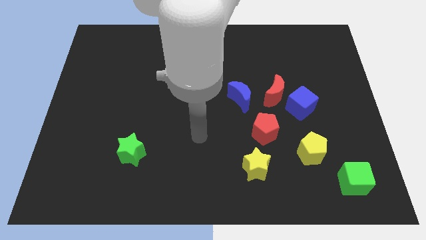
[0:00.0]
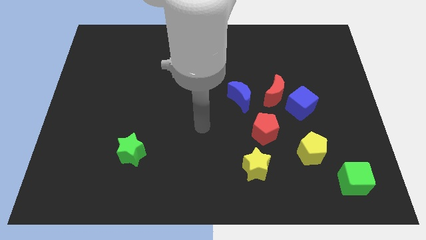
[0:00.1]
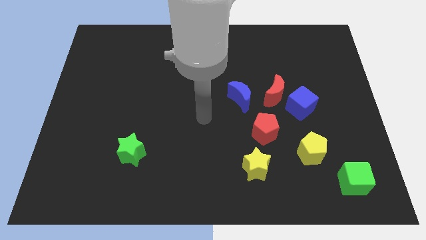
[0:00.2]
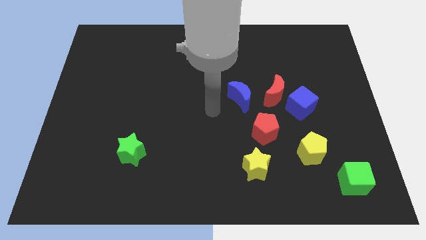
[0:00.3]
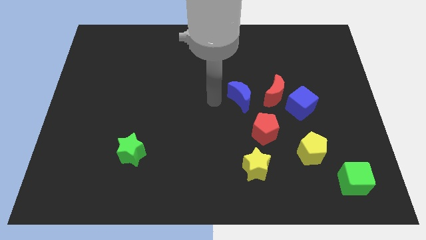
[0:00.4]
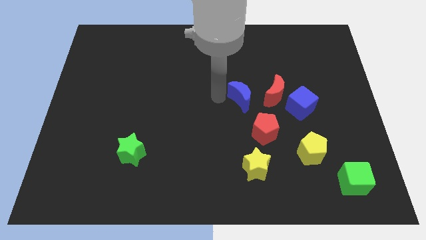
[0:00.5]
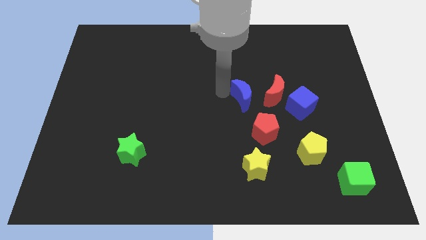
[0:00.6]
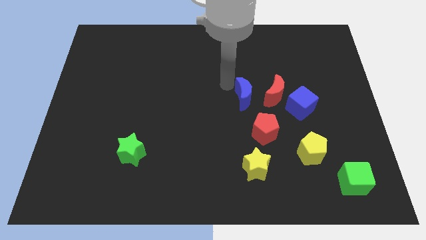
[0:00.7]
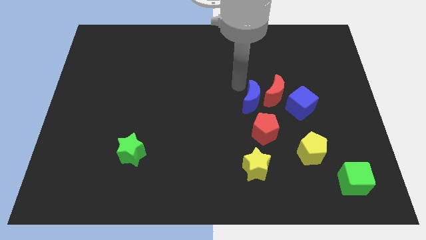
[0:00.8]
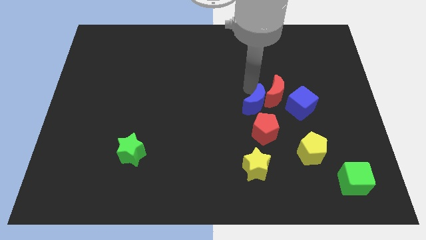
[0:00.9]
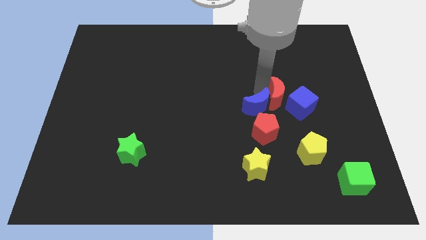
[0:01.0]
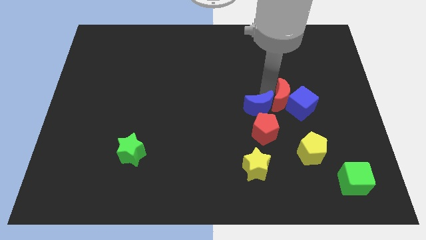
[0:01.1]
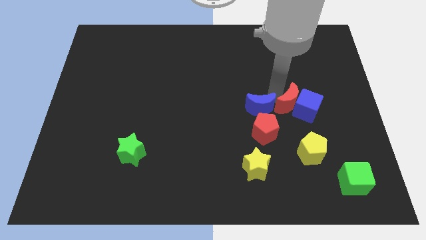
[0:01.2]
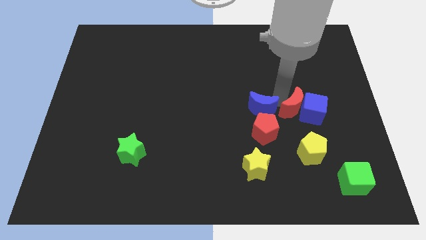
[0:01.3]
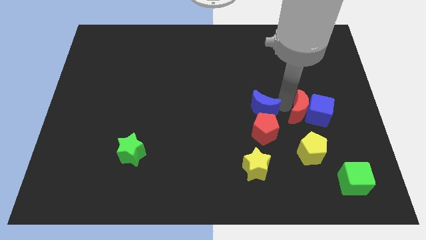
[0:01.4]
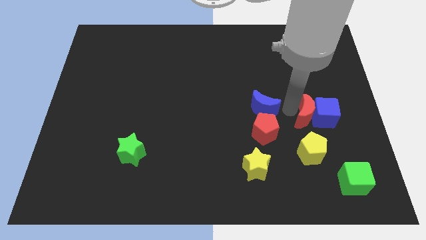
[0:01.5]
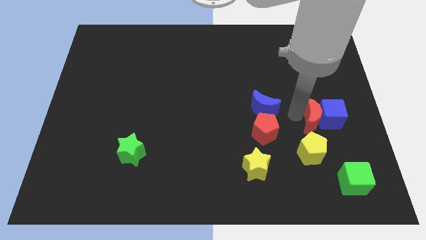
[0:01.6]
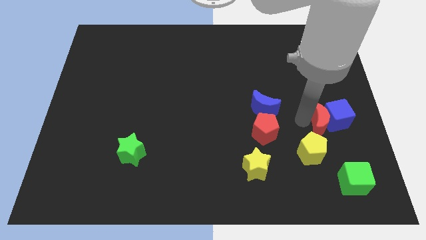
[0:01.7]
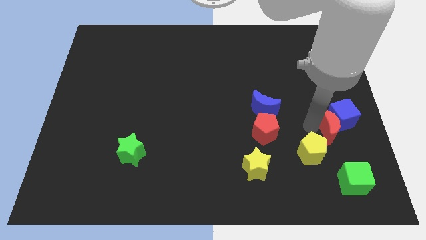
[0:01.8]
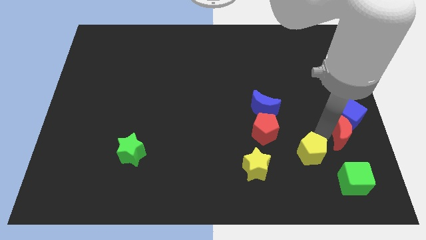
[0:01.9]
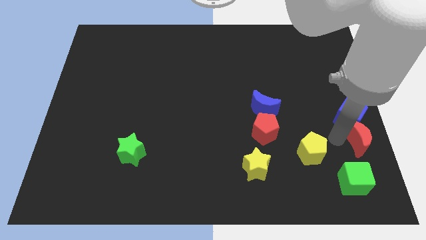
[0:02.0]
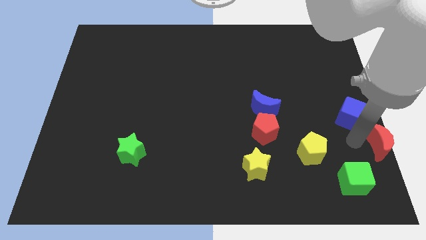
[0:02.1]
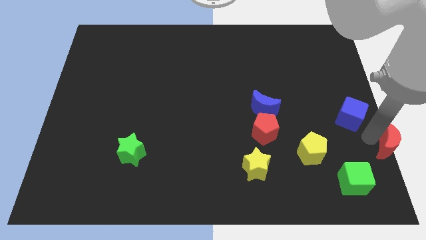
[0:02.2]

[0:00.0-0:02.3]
pull the blue cube apart from the red moon

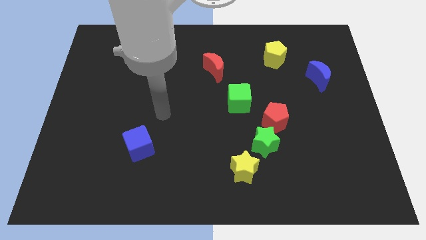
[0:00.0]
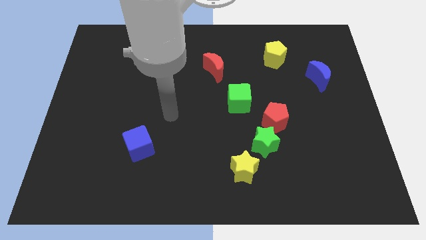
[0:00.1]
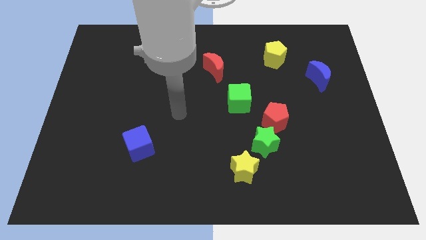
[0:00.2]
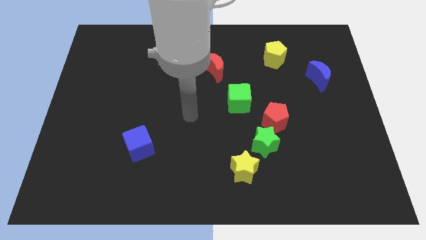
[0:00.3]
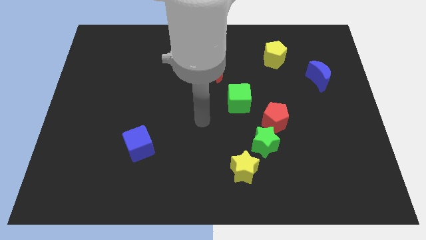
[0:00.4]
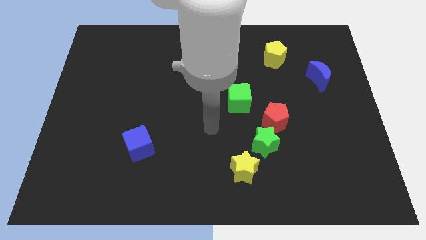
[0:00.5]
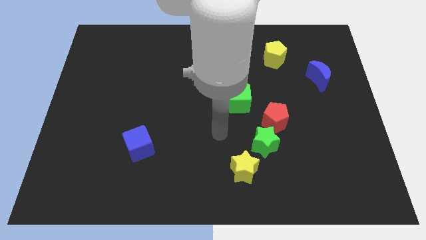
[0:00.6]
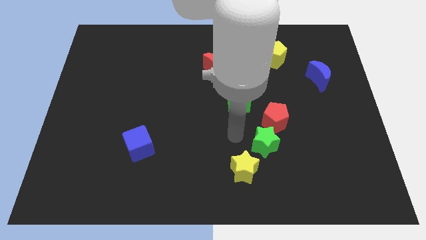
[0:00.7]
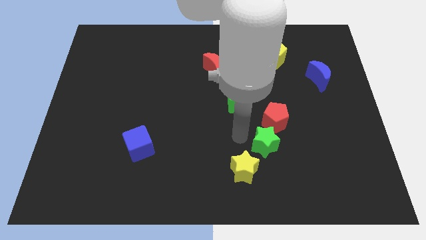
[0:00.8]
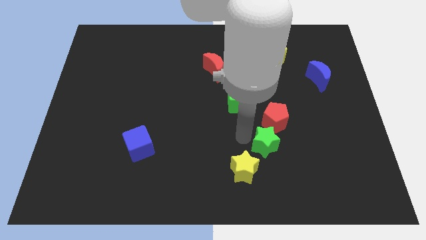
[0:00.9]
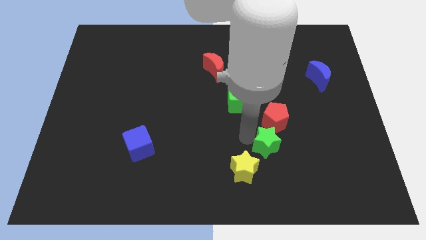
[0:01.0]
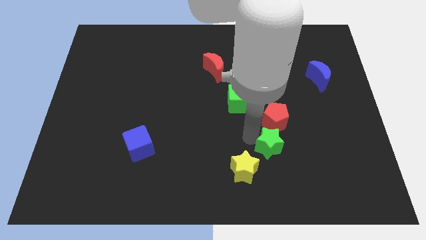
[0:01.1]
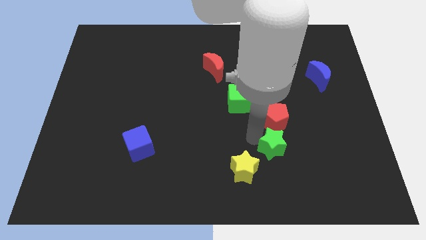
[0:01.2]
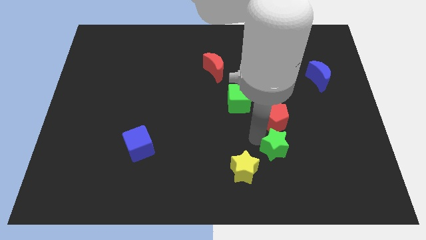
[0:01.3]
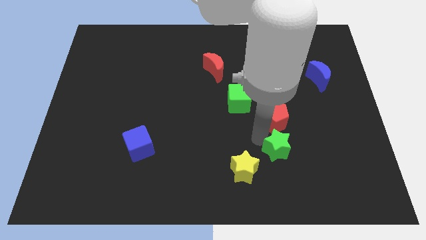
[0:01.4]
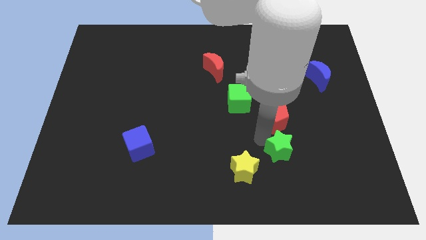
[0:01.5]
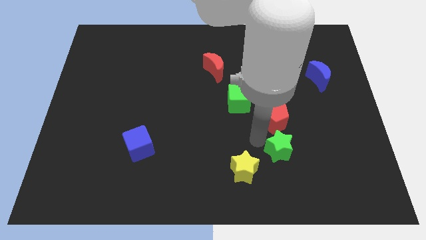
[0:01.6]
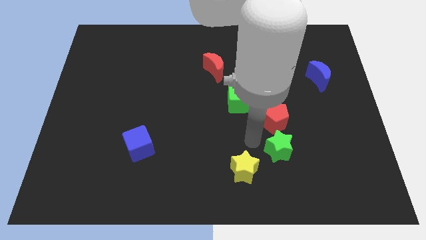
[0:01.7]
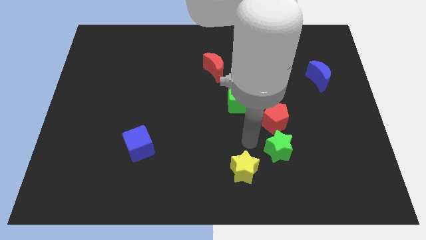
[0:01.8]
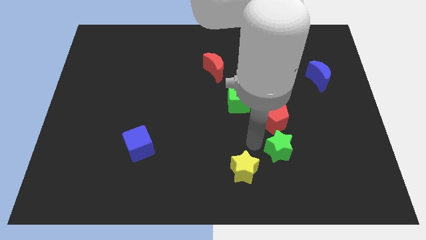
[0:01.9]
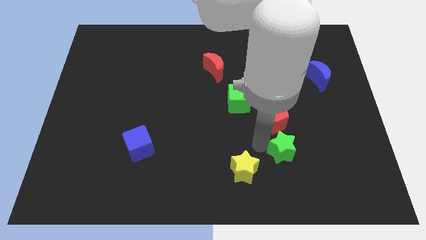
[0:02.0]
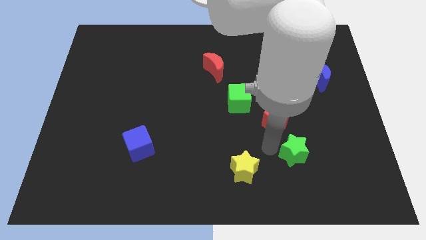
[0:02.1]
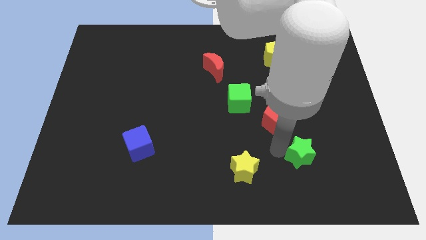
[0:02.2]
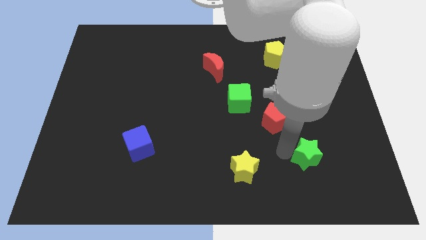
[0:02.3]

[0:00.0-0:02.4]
pull the green star apart from the red pentagon and yellow star

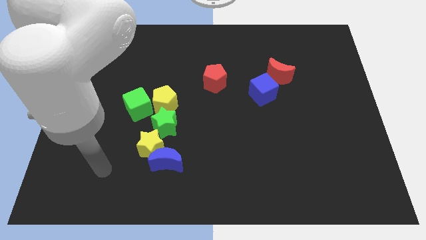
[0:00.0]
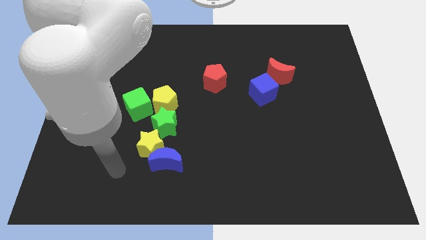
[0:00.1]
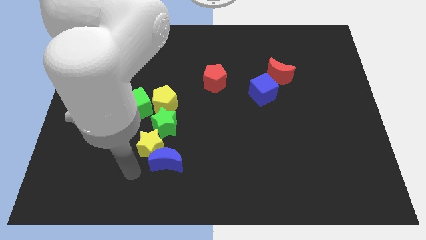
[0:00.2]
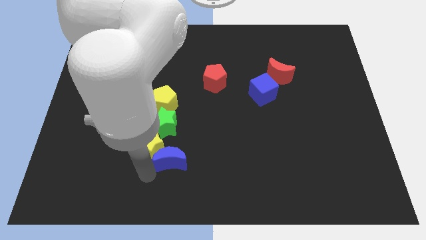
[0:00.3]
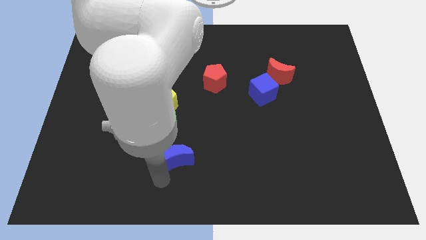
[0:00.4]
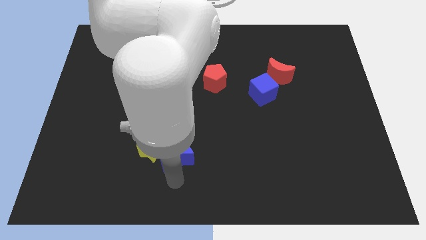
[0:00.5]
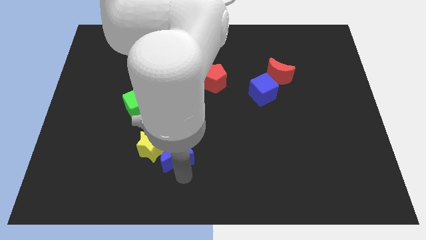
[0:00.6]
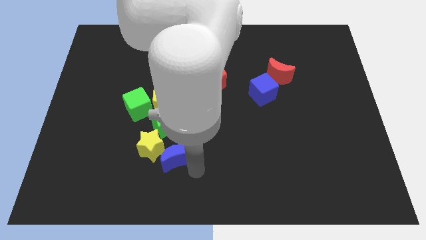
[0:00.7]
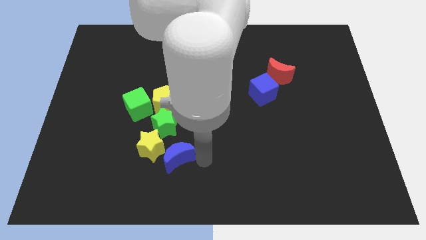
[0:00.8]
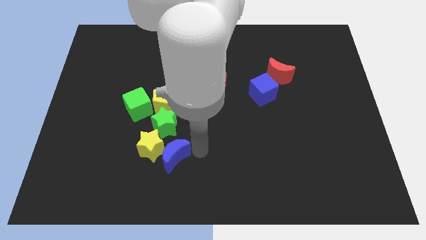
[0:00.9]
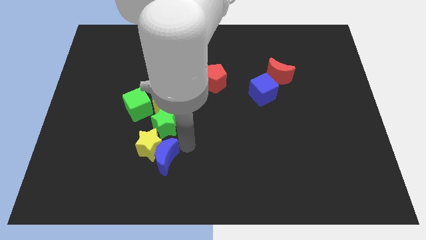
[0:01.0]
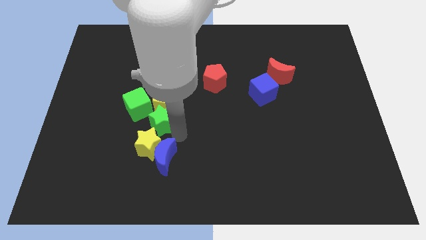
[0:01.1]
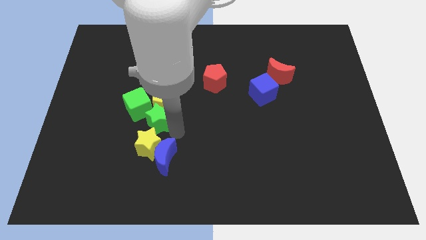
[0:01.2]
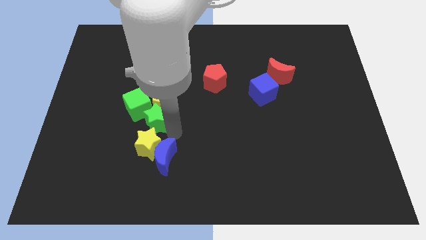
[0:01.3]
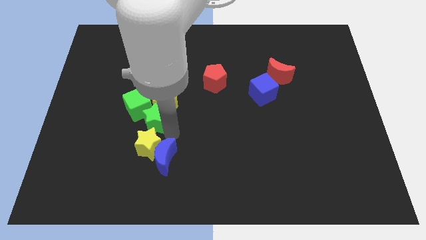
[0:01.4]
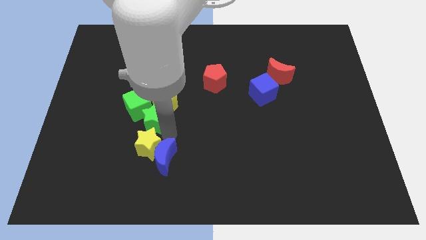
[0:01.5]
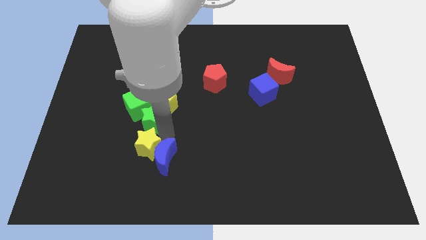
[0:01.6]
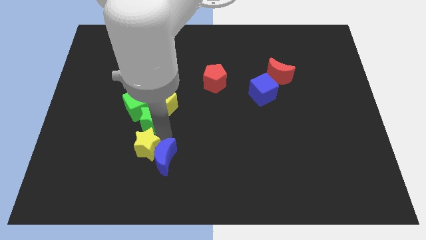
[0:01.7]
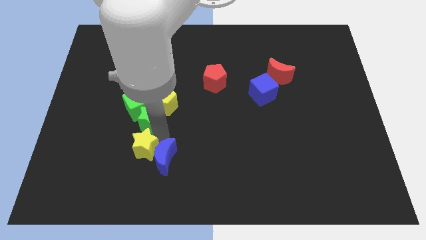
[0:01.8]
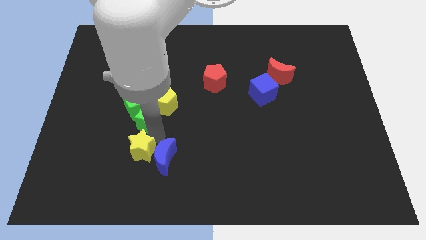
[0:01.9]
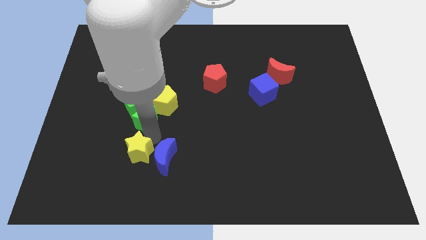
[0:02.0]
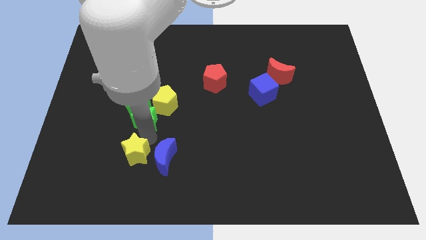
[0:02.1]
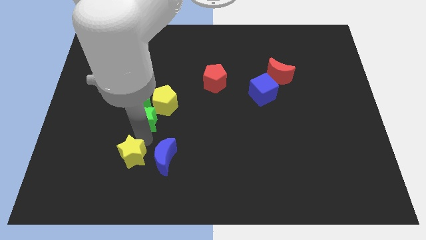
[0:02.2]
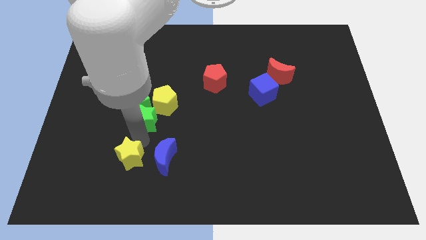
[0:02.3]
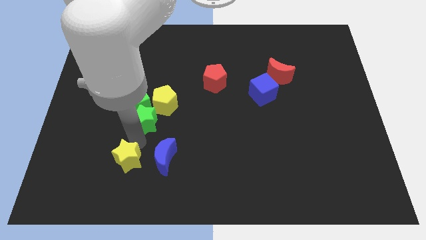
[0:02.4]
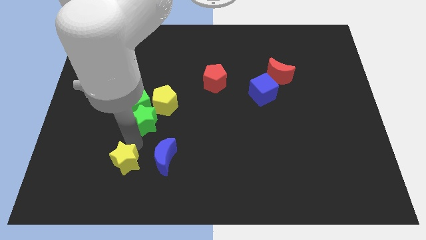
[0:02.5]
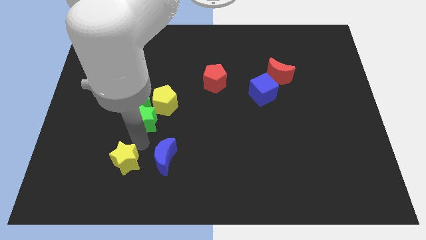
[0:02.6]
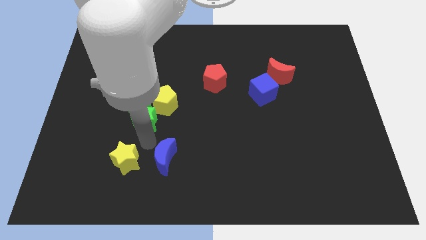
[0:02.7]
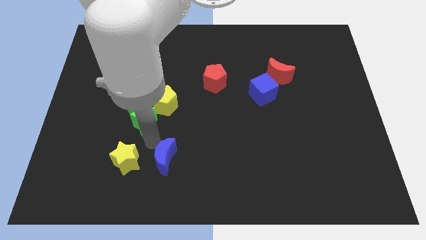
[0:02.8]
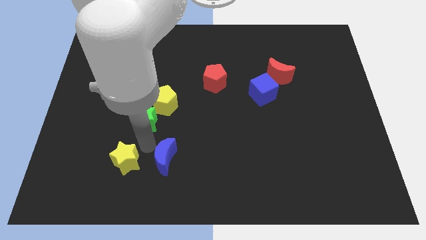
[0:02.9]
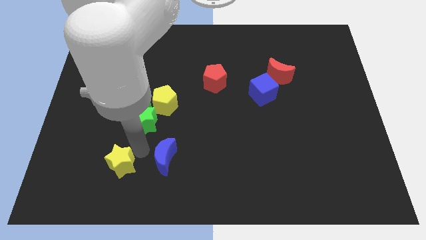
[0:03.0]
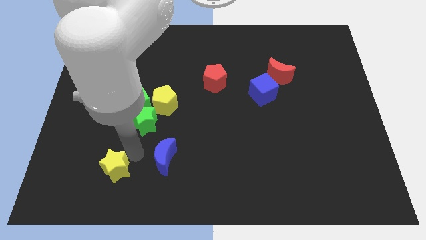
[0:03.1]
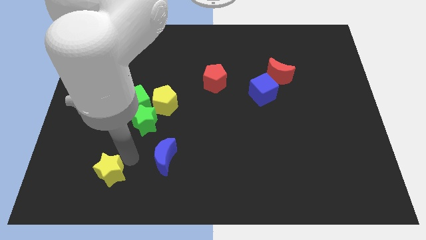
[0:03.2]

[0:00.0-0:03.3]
pull the yellow star apart from the blue moon and green star

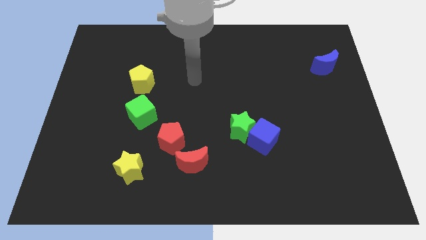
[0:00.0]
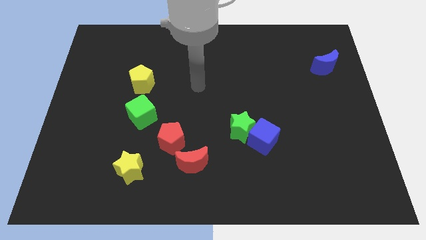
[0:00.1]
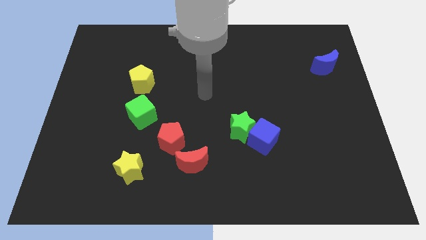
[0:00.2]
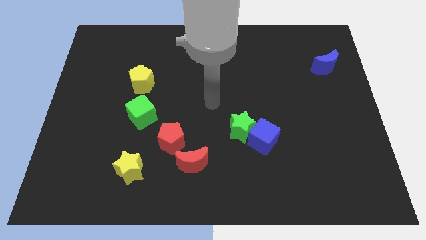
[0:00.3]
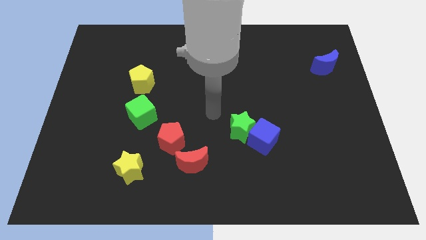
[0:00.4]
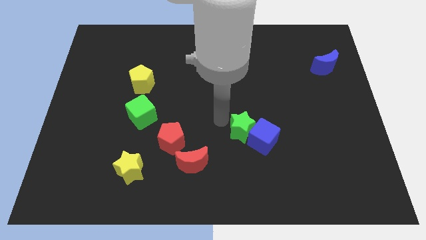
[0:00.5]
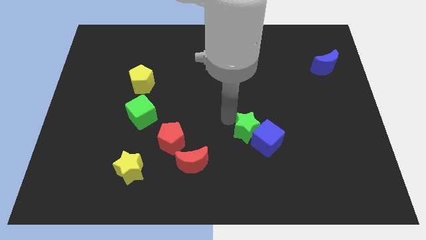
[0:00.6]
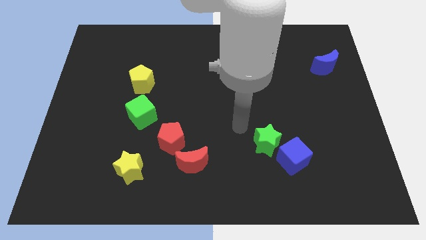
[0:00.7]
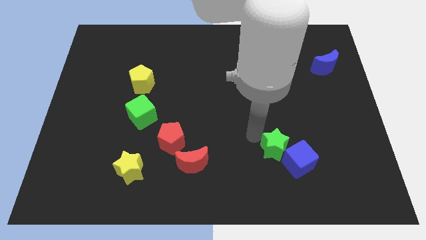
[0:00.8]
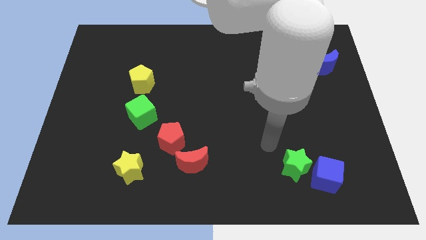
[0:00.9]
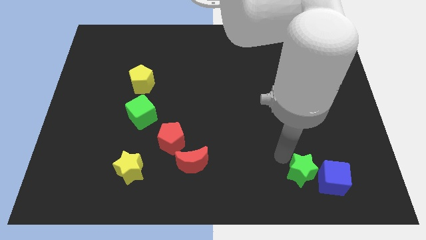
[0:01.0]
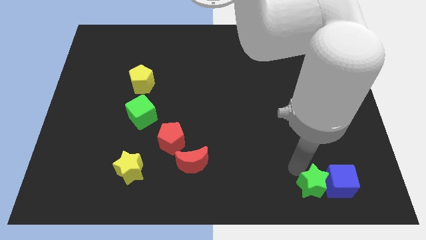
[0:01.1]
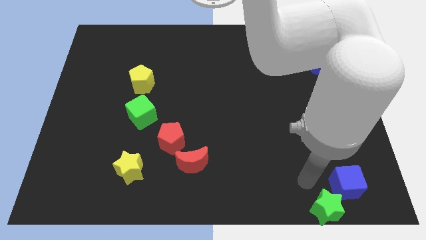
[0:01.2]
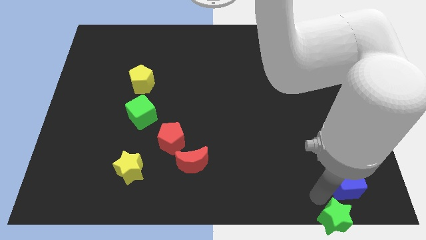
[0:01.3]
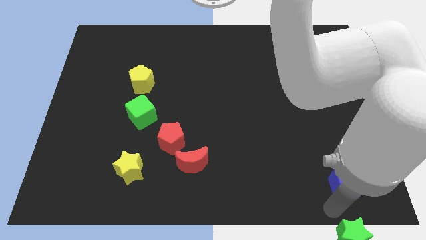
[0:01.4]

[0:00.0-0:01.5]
move the blue cube away from the green star
